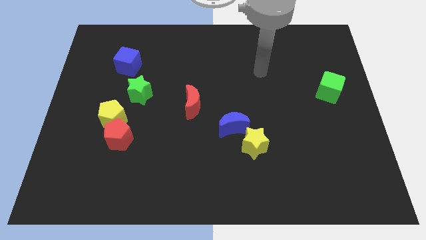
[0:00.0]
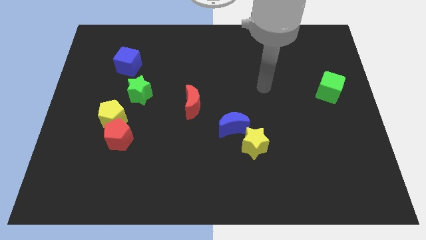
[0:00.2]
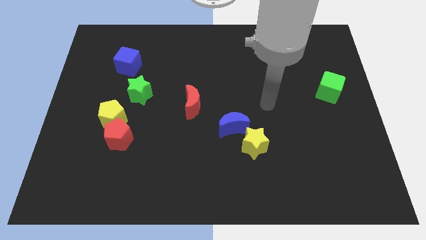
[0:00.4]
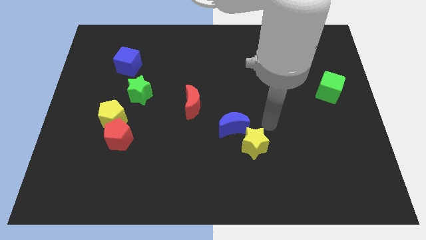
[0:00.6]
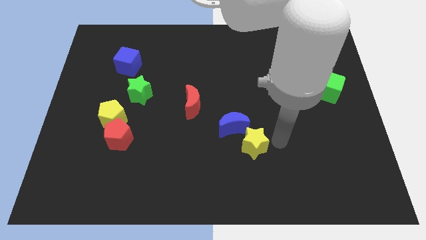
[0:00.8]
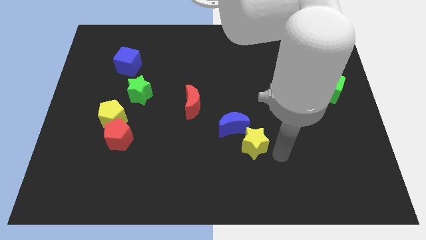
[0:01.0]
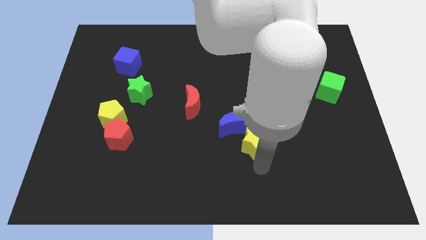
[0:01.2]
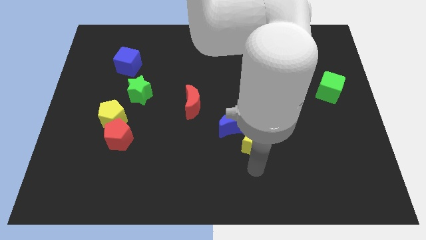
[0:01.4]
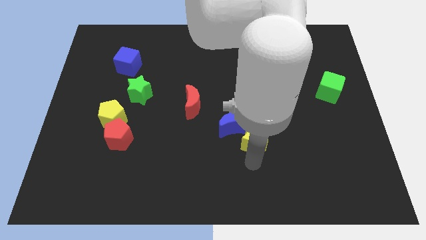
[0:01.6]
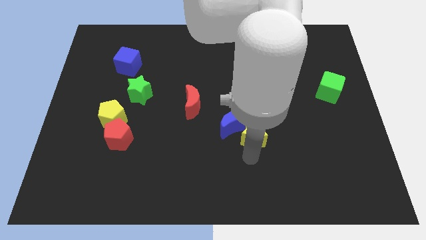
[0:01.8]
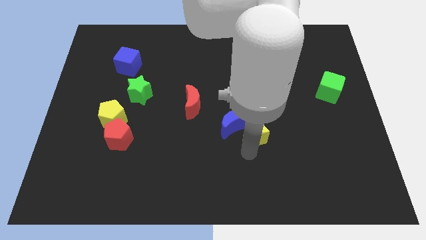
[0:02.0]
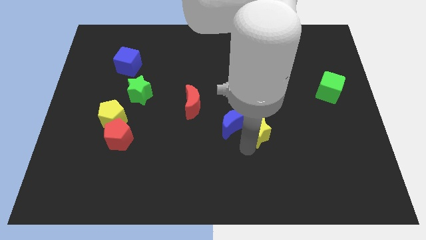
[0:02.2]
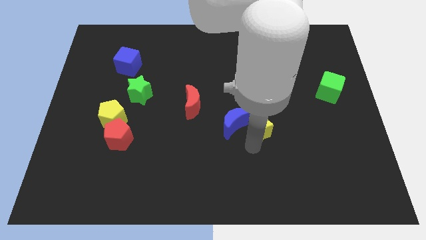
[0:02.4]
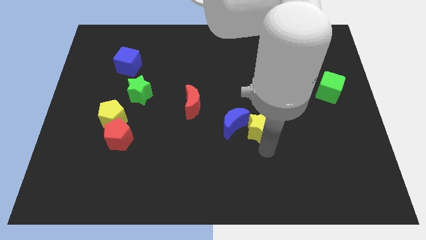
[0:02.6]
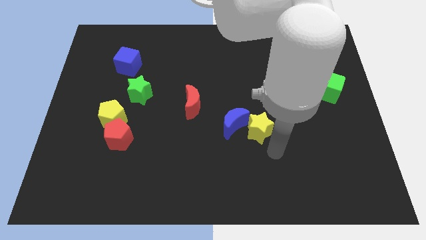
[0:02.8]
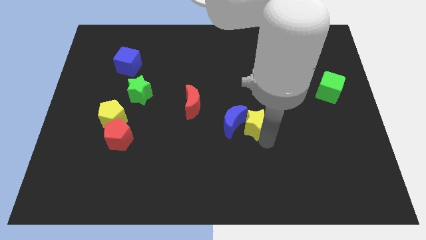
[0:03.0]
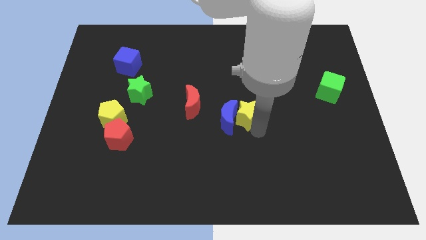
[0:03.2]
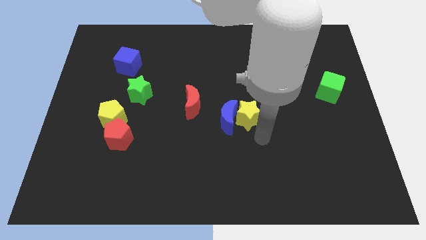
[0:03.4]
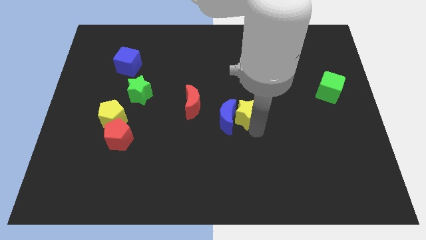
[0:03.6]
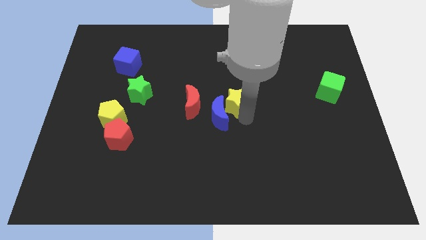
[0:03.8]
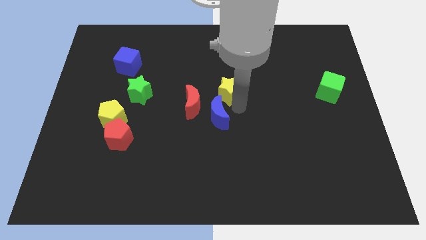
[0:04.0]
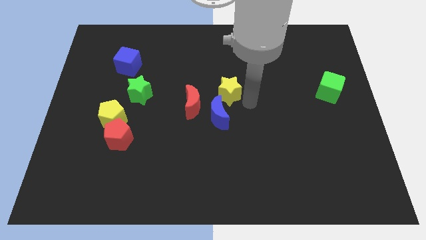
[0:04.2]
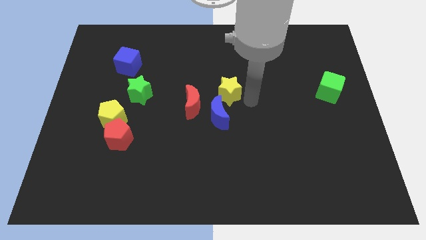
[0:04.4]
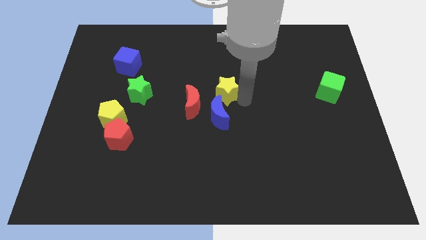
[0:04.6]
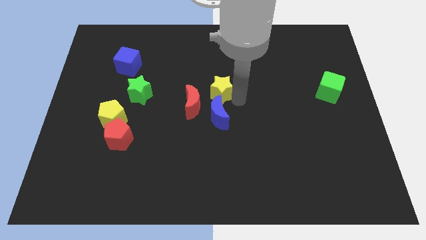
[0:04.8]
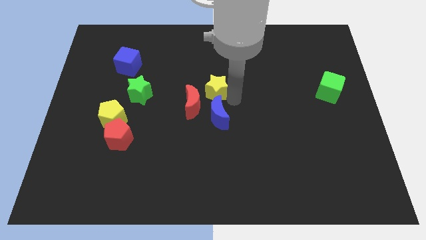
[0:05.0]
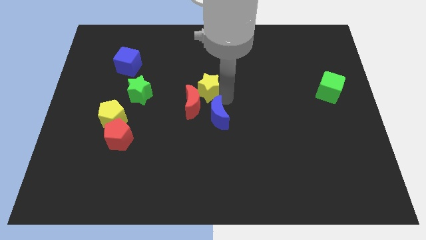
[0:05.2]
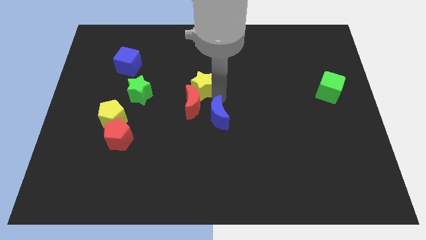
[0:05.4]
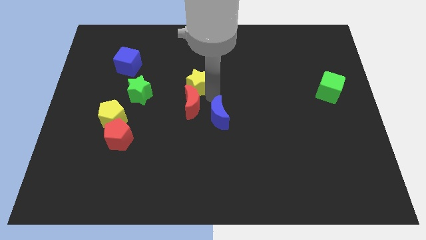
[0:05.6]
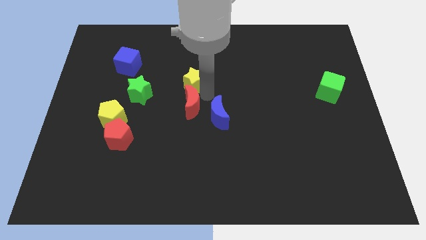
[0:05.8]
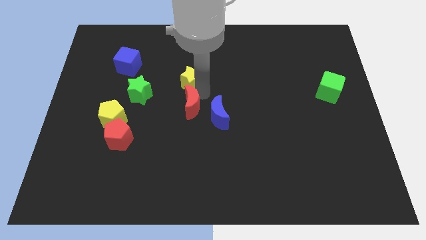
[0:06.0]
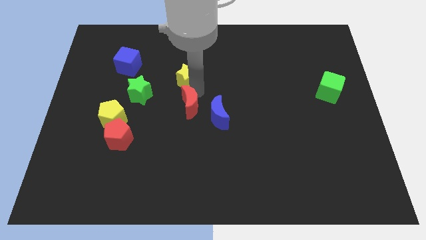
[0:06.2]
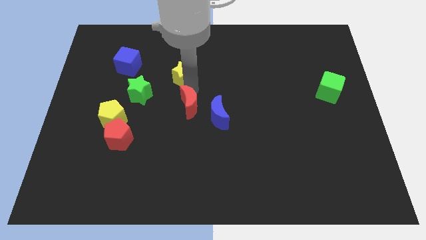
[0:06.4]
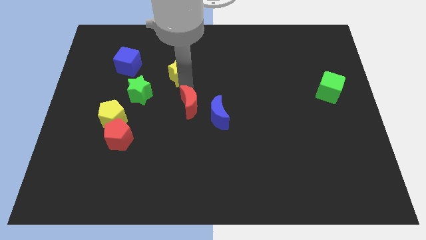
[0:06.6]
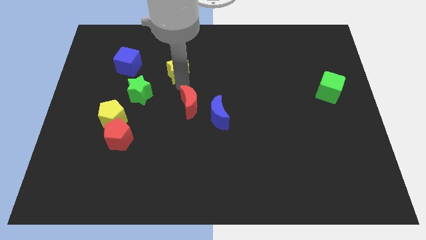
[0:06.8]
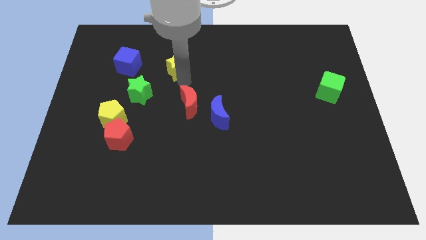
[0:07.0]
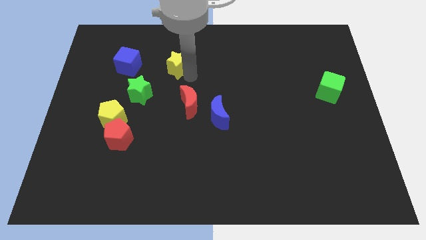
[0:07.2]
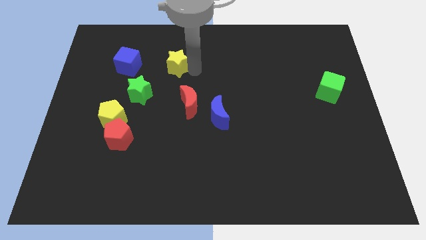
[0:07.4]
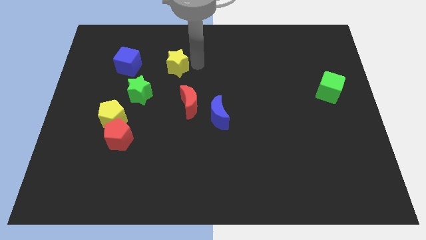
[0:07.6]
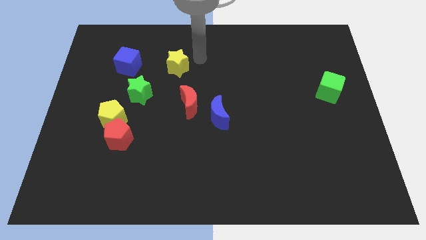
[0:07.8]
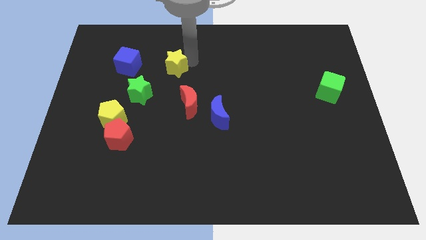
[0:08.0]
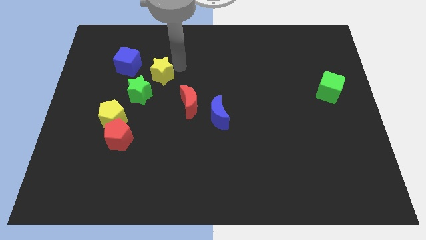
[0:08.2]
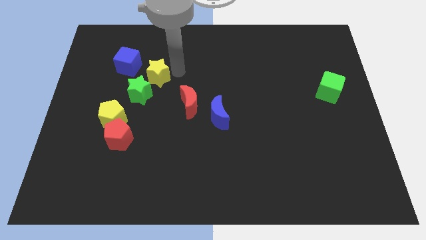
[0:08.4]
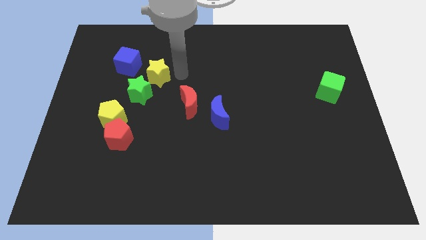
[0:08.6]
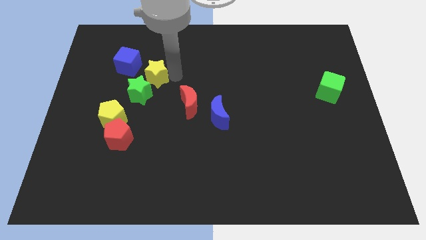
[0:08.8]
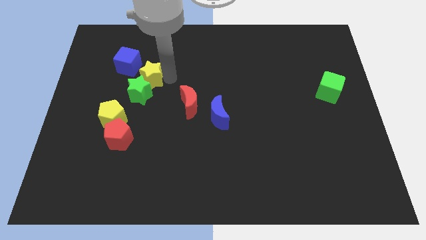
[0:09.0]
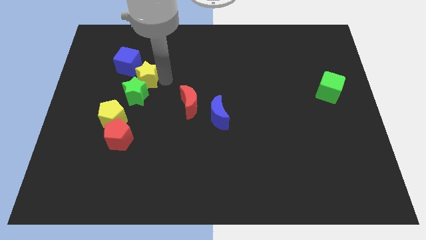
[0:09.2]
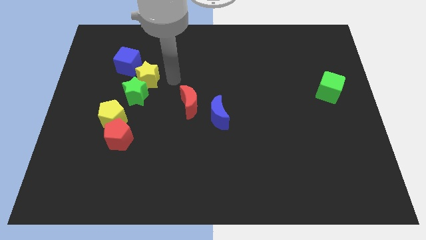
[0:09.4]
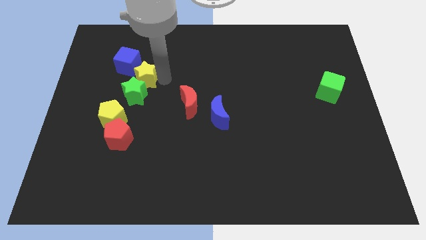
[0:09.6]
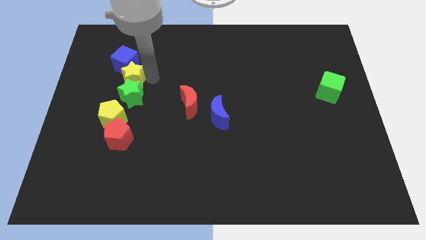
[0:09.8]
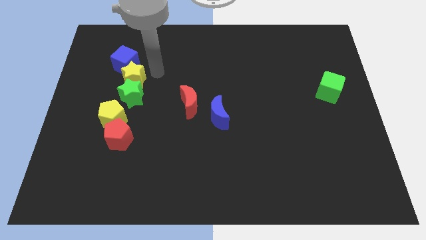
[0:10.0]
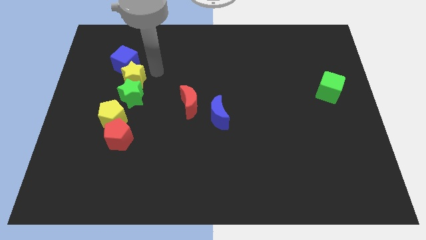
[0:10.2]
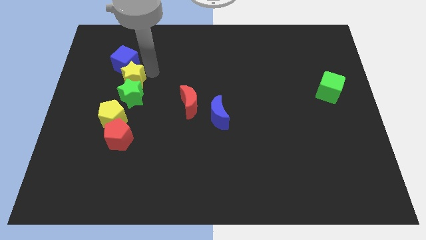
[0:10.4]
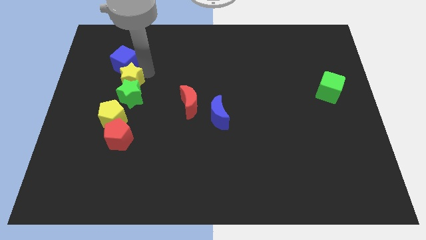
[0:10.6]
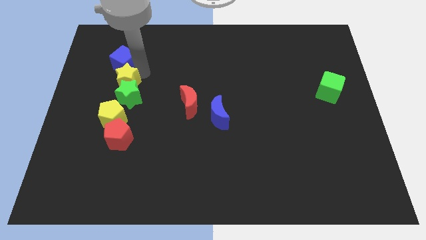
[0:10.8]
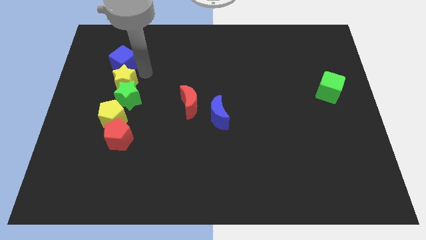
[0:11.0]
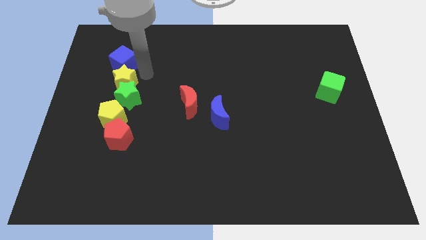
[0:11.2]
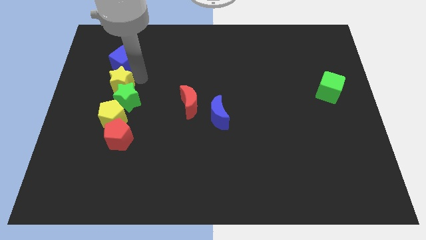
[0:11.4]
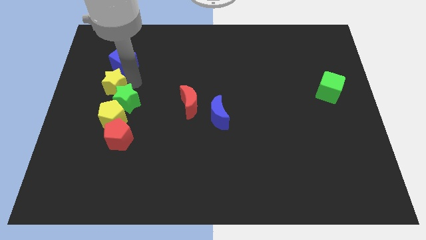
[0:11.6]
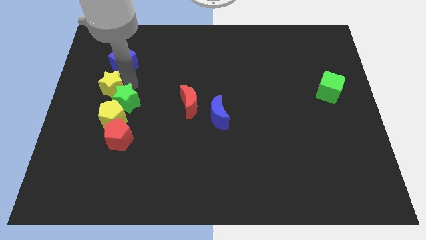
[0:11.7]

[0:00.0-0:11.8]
push the yellow star just left of the green star

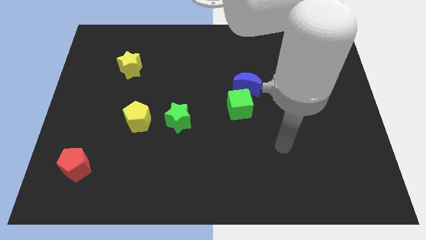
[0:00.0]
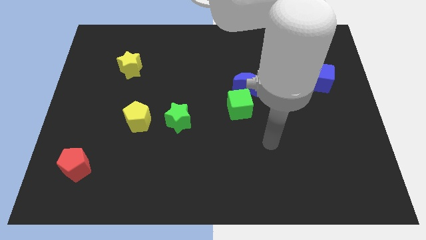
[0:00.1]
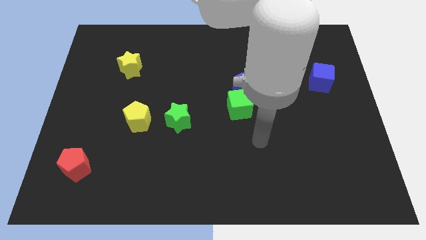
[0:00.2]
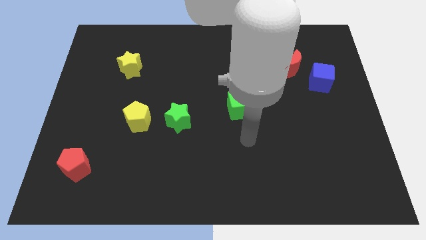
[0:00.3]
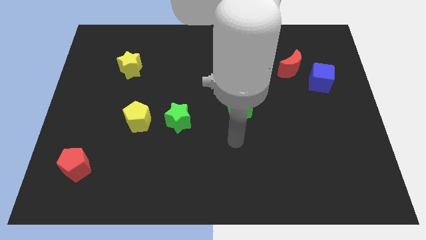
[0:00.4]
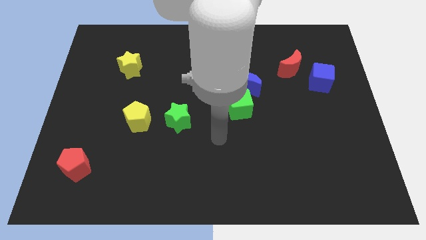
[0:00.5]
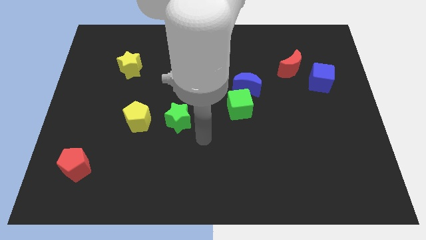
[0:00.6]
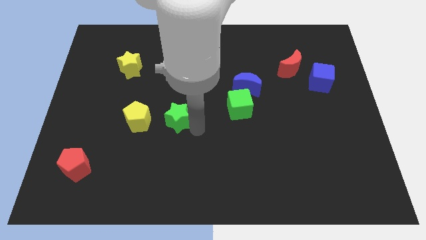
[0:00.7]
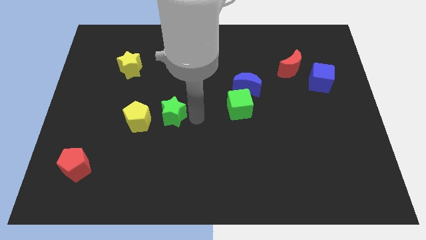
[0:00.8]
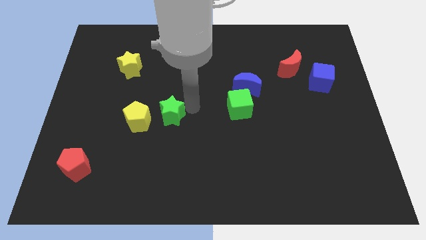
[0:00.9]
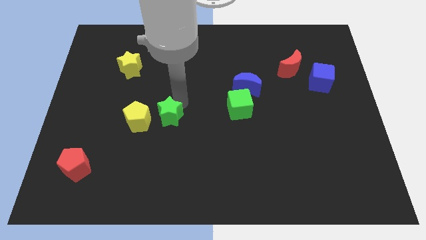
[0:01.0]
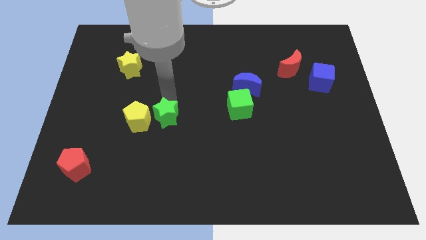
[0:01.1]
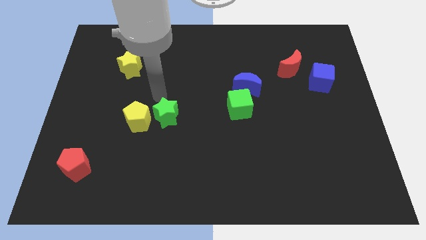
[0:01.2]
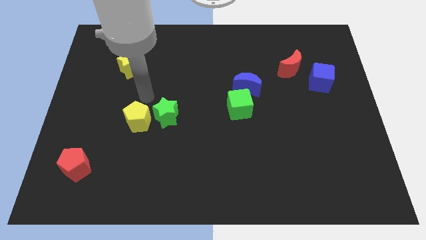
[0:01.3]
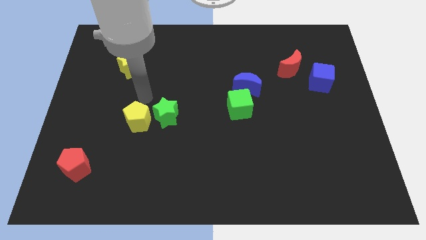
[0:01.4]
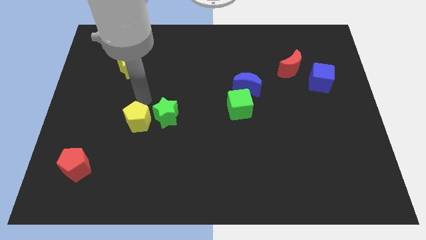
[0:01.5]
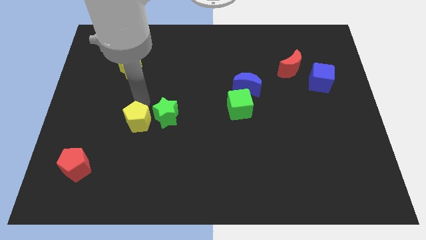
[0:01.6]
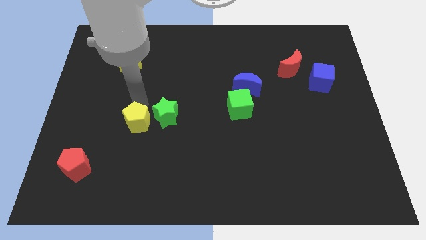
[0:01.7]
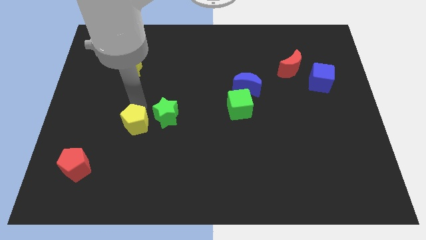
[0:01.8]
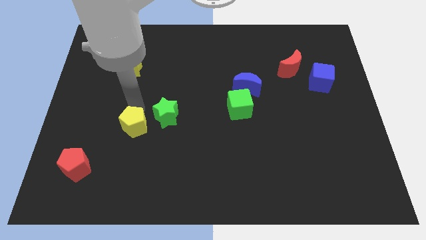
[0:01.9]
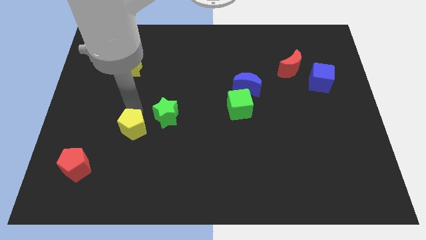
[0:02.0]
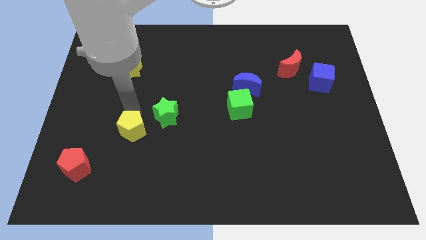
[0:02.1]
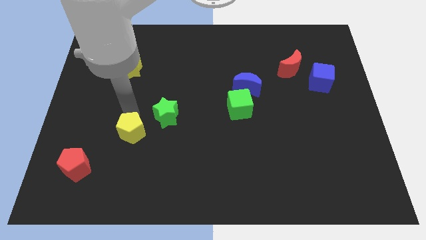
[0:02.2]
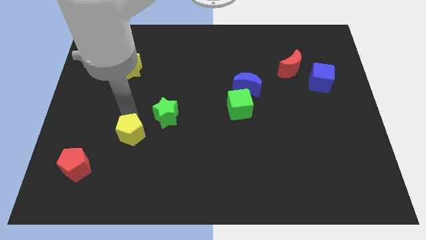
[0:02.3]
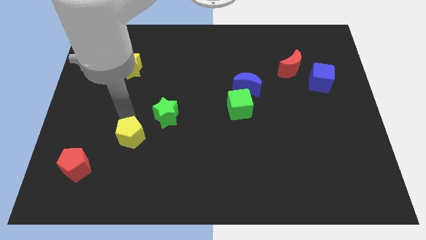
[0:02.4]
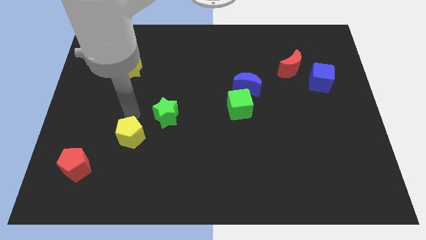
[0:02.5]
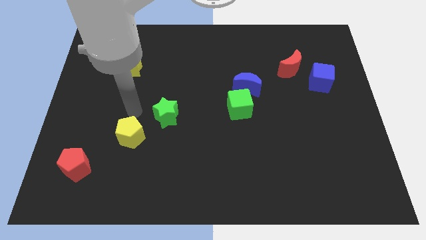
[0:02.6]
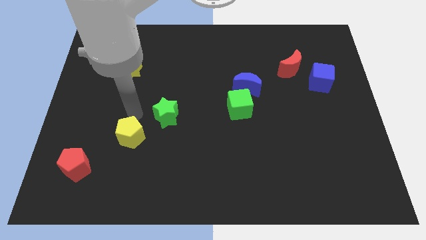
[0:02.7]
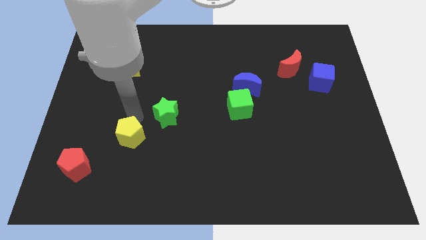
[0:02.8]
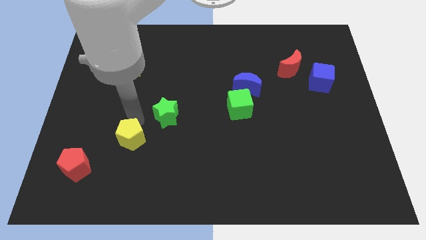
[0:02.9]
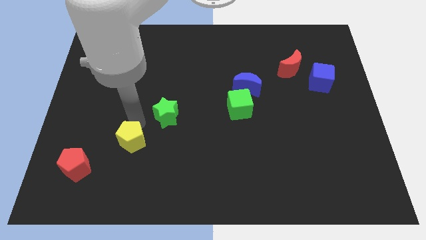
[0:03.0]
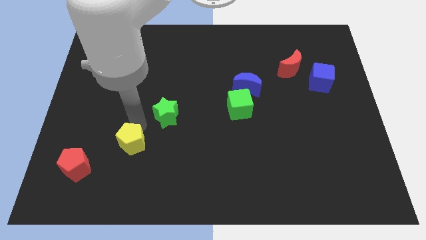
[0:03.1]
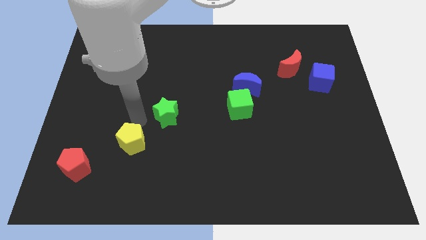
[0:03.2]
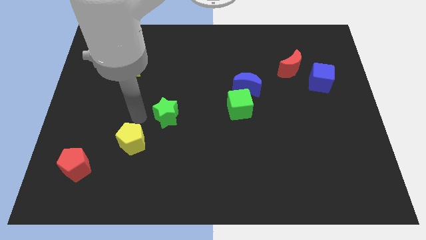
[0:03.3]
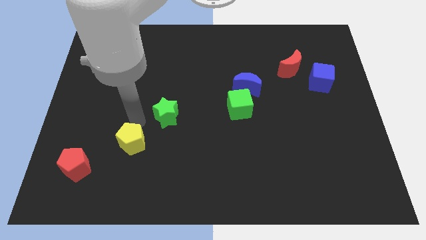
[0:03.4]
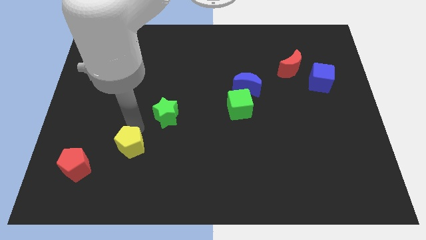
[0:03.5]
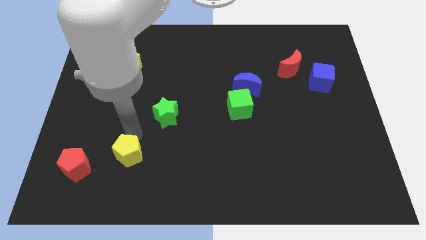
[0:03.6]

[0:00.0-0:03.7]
push the yellow pentagon just right of the red pentagon
